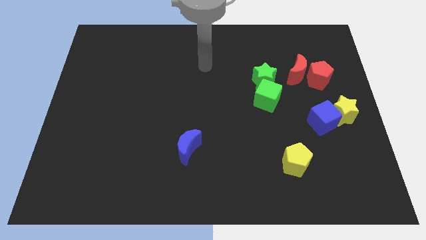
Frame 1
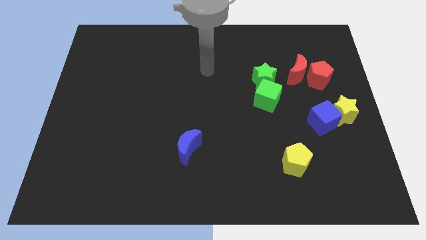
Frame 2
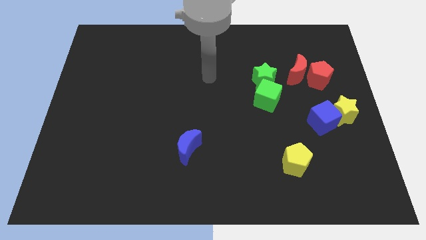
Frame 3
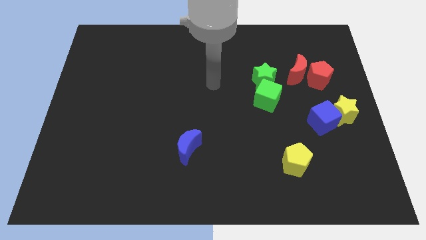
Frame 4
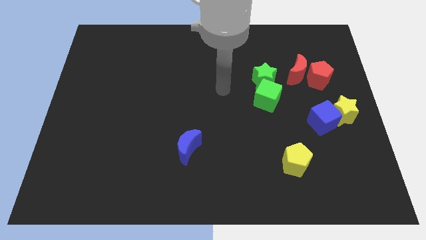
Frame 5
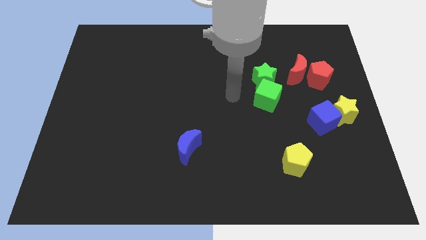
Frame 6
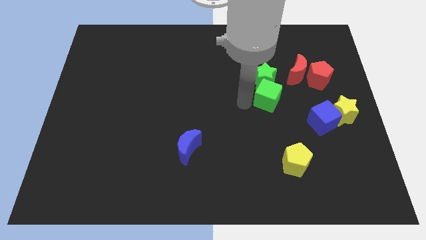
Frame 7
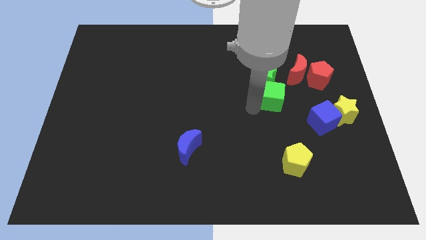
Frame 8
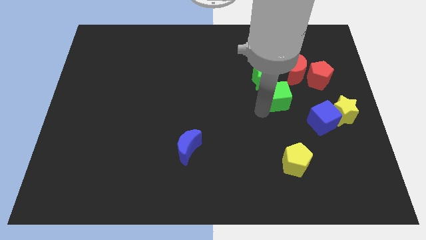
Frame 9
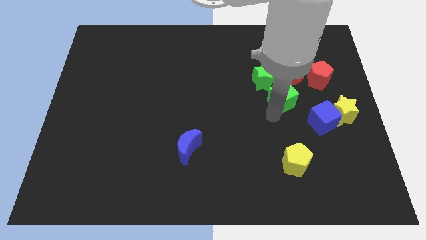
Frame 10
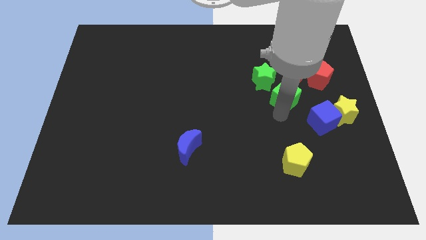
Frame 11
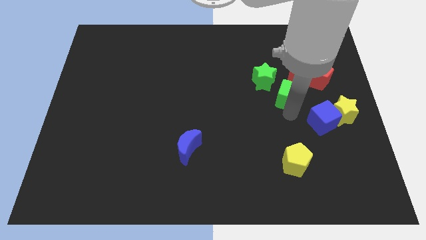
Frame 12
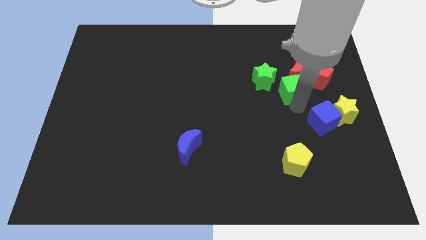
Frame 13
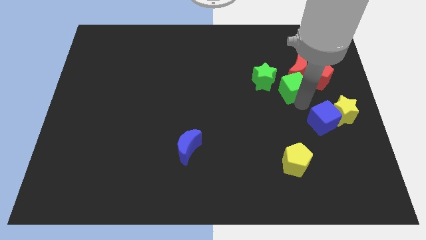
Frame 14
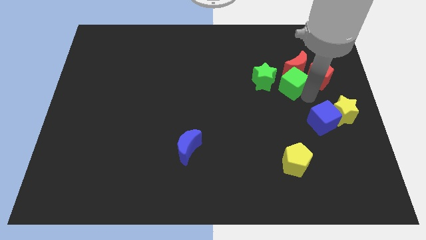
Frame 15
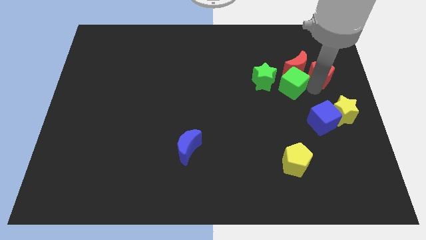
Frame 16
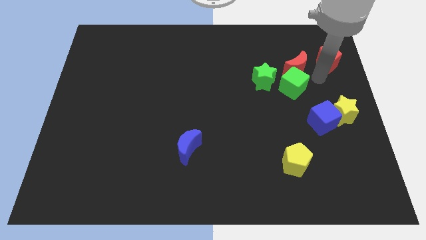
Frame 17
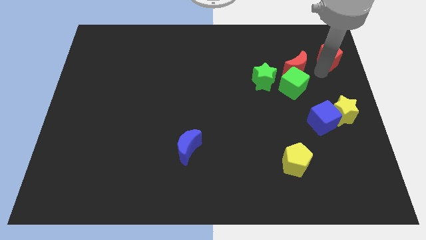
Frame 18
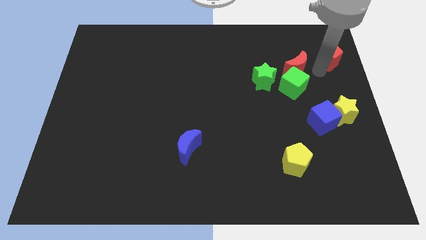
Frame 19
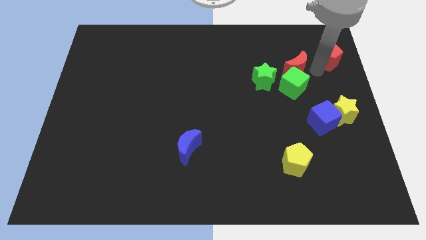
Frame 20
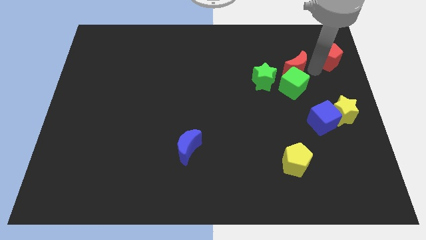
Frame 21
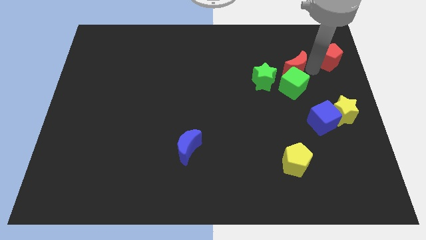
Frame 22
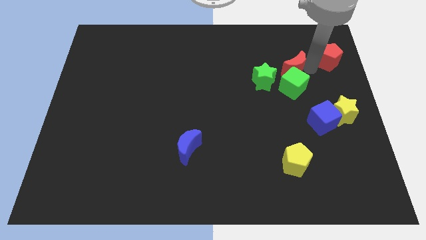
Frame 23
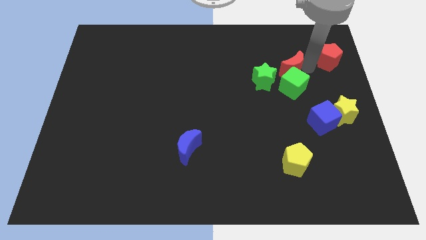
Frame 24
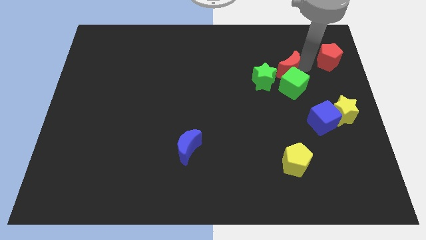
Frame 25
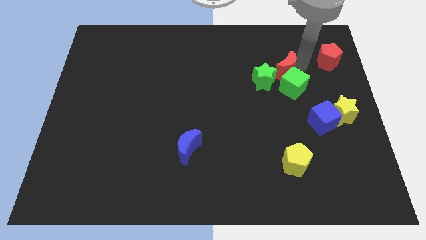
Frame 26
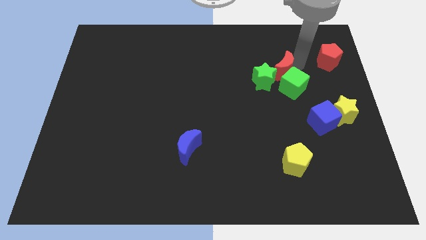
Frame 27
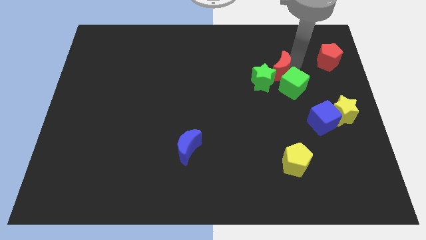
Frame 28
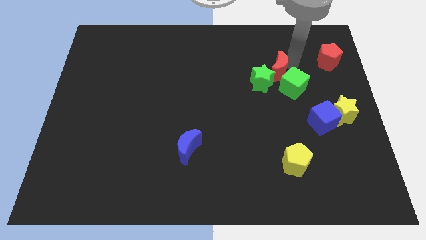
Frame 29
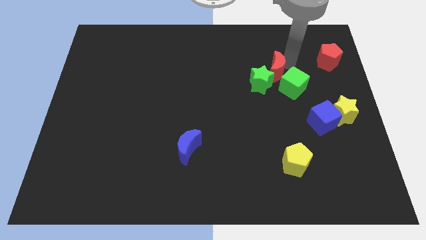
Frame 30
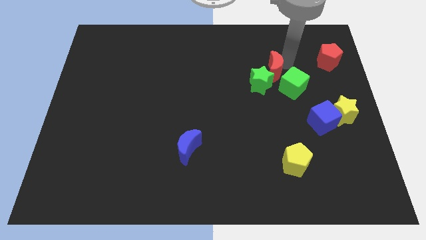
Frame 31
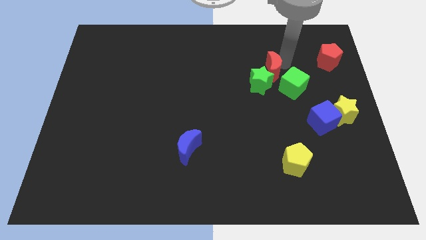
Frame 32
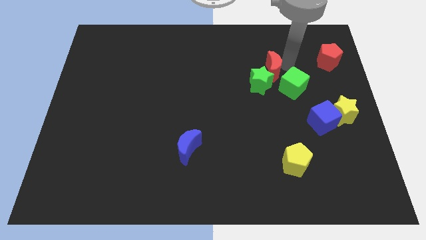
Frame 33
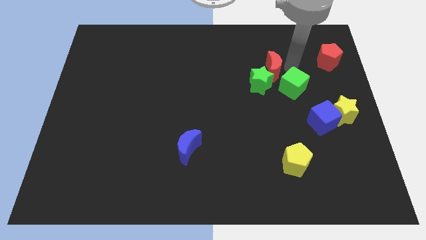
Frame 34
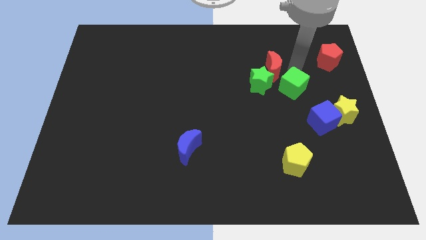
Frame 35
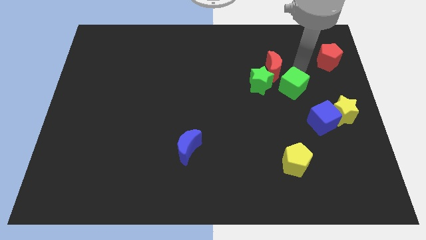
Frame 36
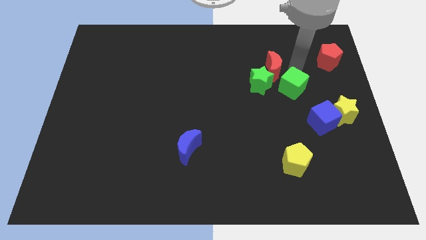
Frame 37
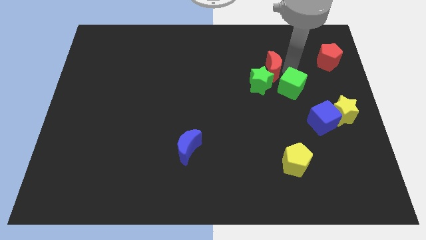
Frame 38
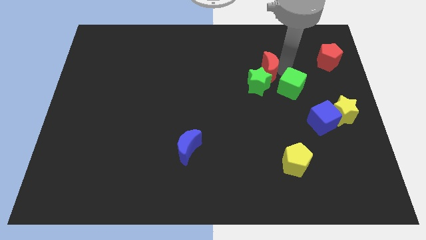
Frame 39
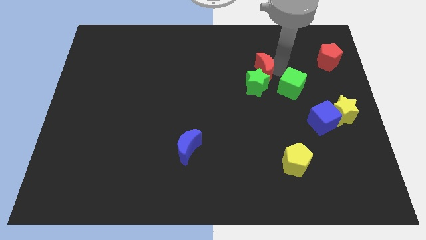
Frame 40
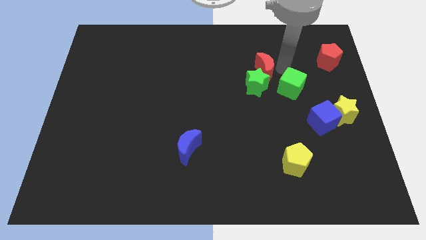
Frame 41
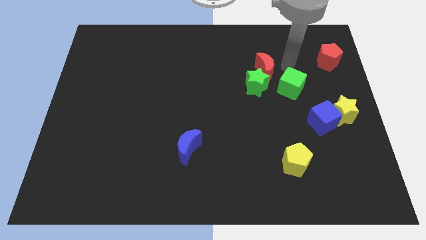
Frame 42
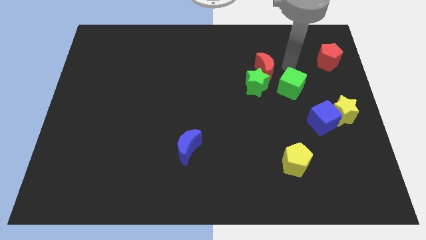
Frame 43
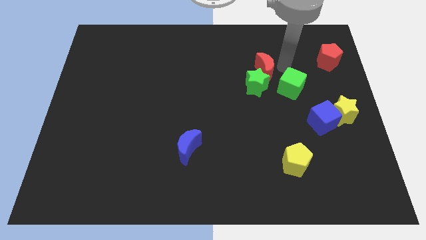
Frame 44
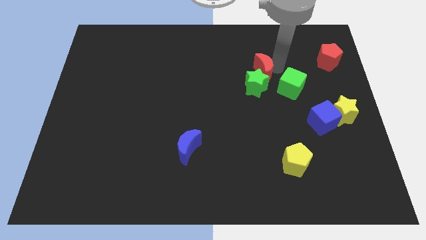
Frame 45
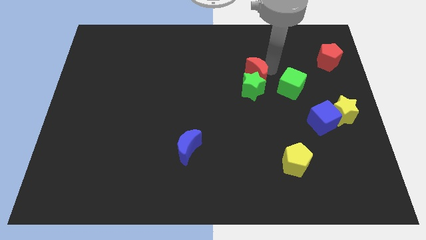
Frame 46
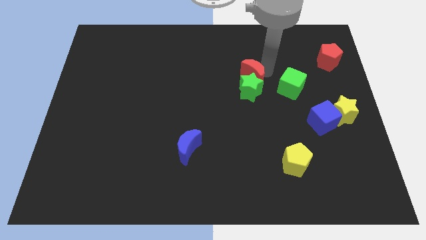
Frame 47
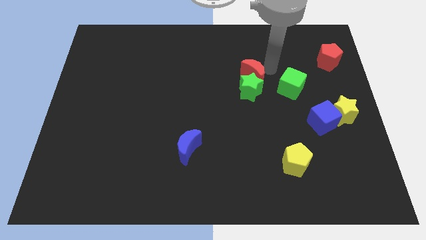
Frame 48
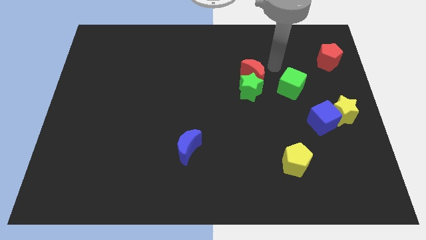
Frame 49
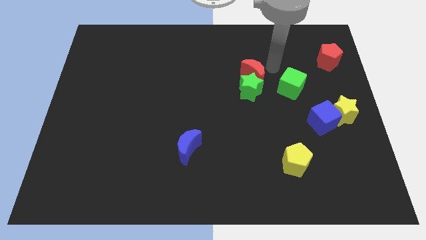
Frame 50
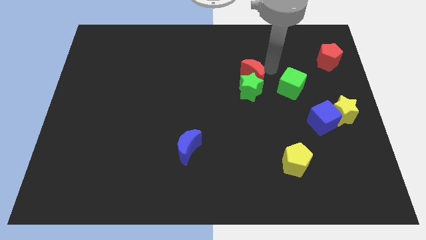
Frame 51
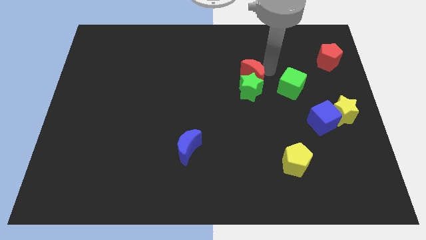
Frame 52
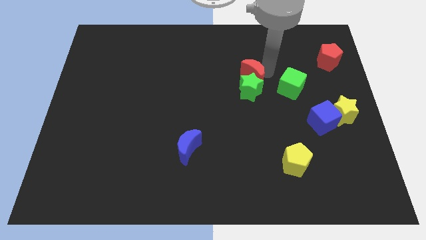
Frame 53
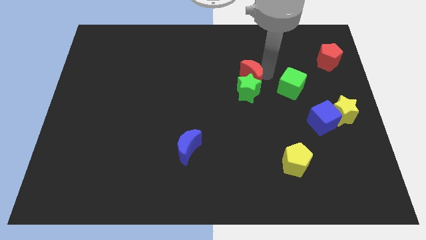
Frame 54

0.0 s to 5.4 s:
move the red moon to the middle of the board

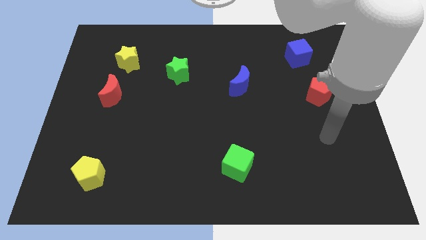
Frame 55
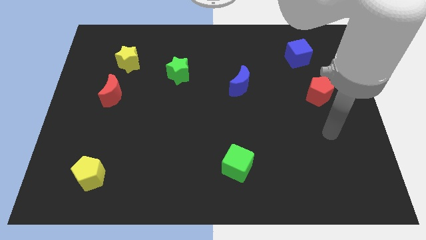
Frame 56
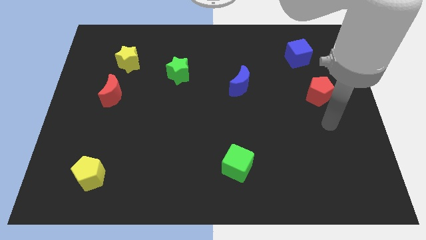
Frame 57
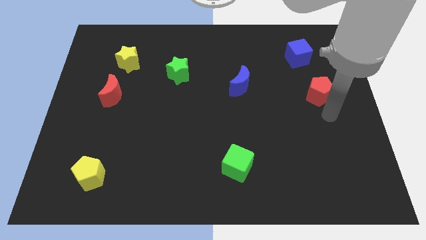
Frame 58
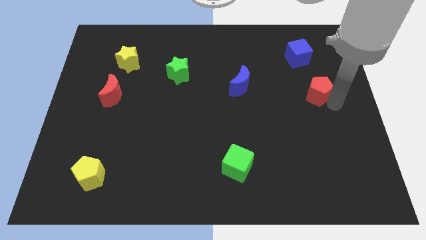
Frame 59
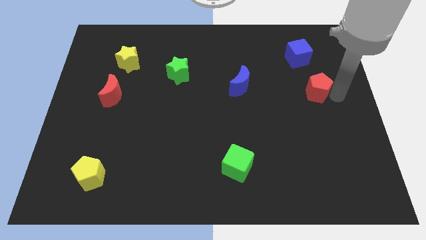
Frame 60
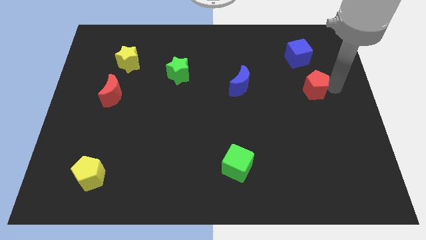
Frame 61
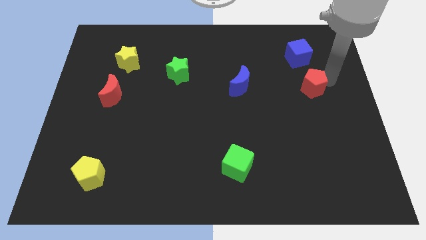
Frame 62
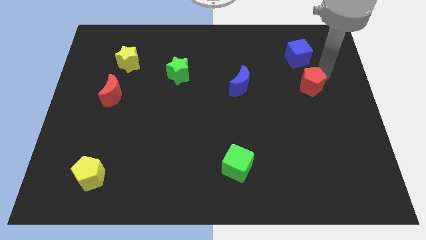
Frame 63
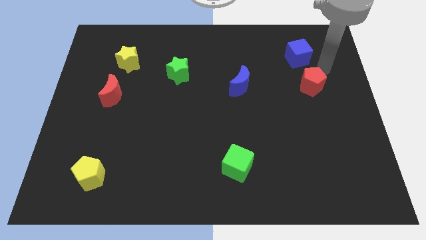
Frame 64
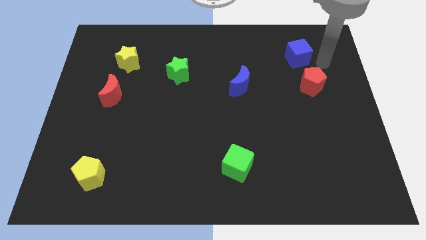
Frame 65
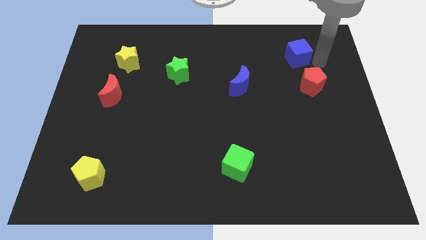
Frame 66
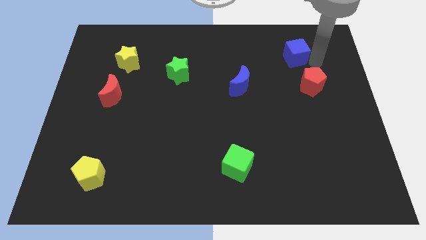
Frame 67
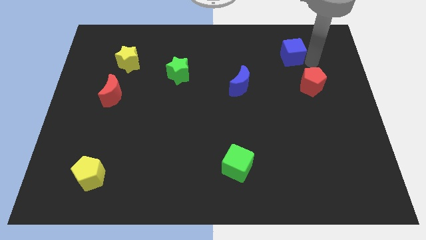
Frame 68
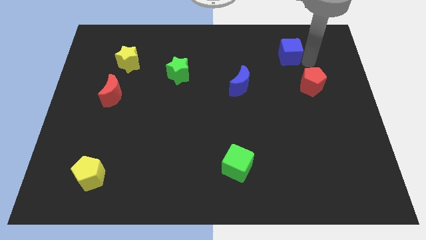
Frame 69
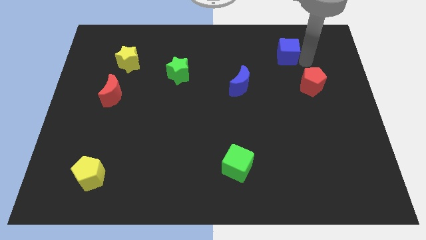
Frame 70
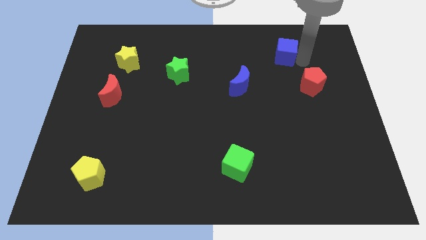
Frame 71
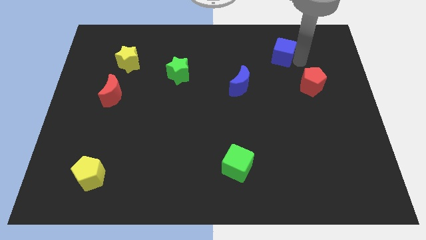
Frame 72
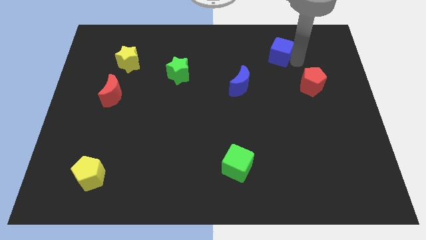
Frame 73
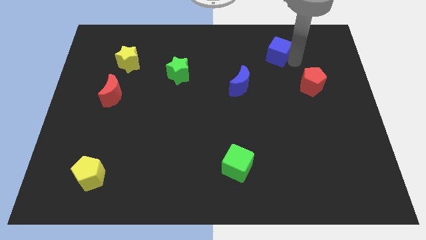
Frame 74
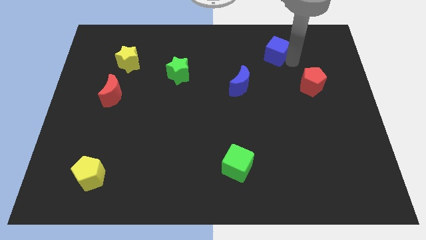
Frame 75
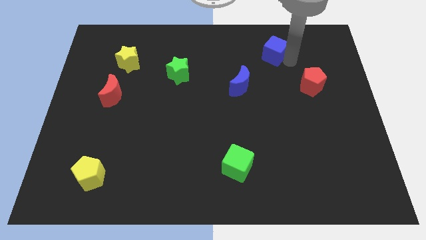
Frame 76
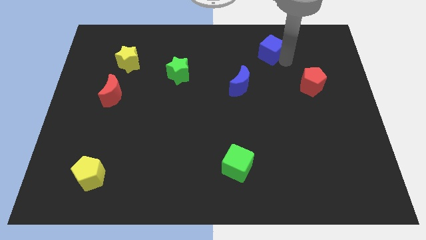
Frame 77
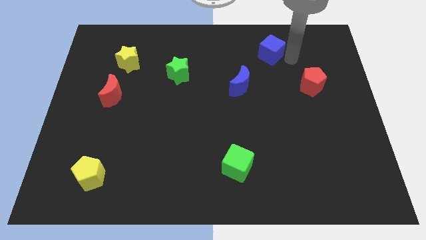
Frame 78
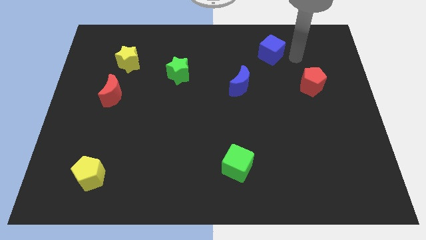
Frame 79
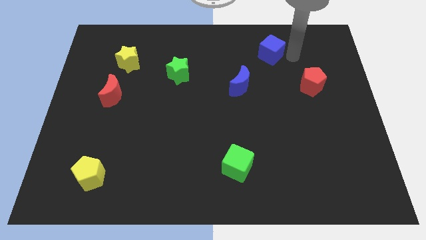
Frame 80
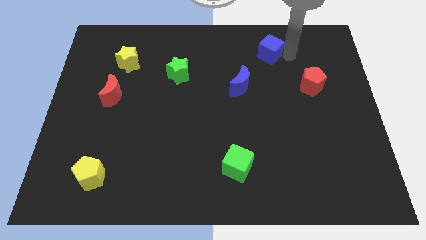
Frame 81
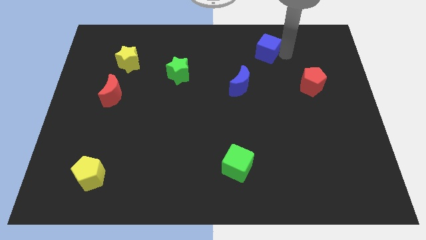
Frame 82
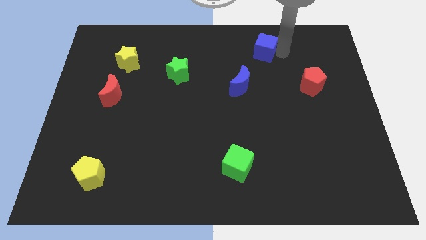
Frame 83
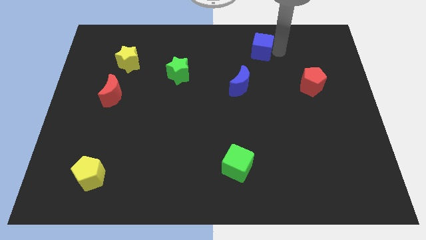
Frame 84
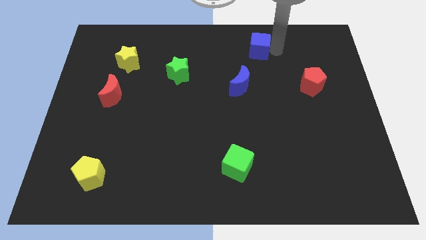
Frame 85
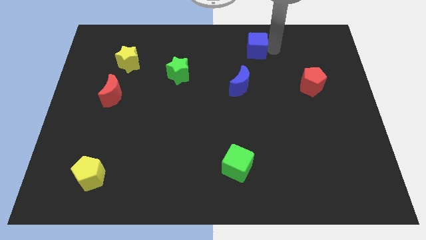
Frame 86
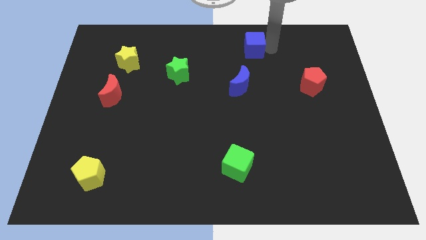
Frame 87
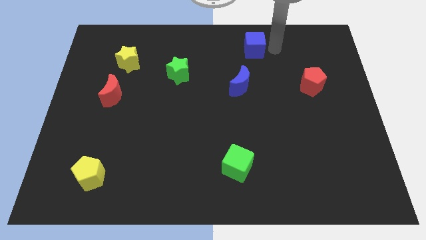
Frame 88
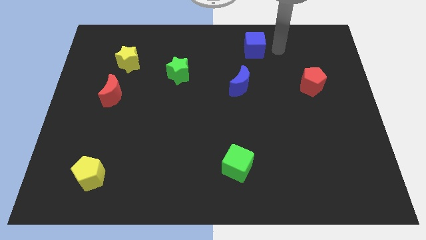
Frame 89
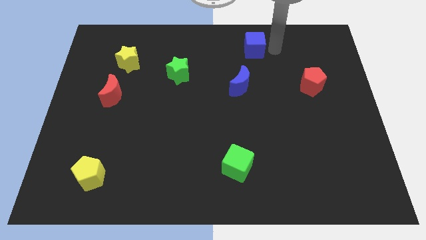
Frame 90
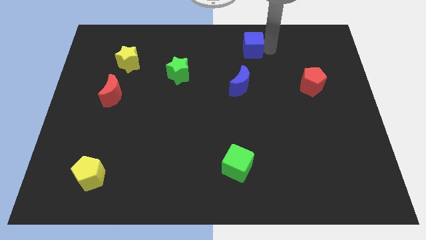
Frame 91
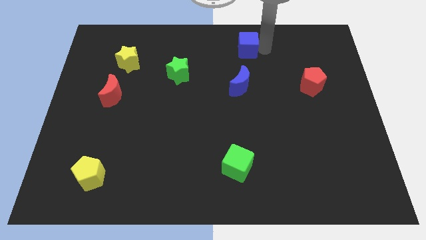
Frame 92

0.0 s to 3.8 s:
put the blue cube to the top side
